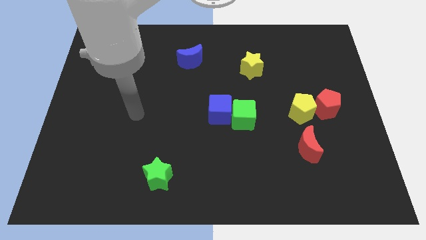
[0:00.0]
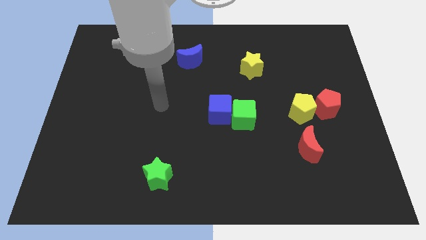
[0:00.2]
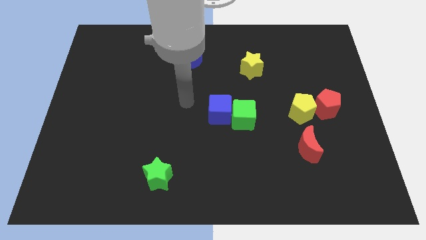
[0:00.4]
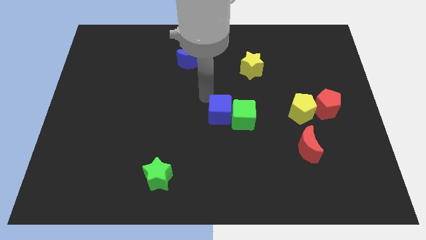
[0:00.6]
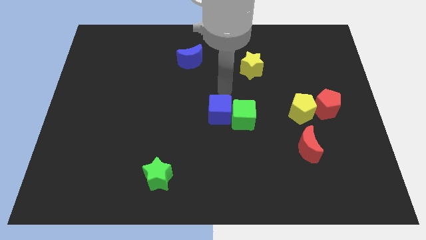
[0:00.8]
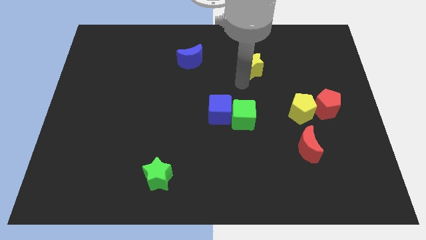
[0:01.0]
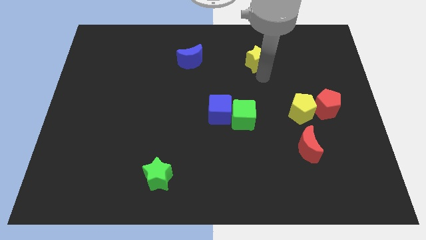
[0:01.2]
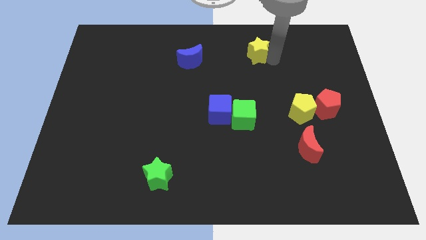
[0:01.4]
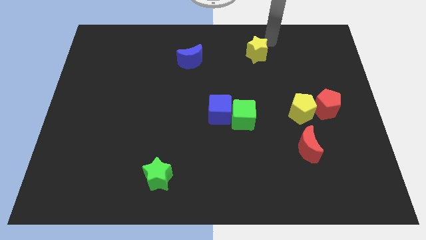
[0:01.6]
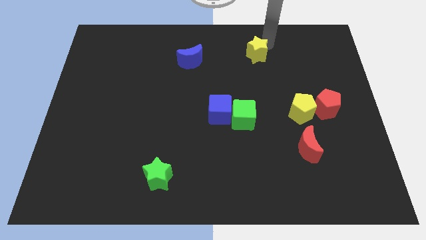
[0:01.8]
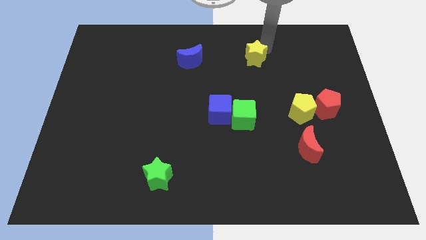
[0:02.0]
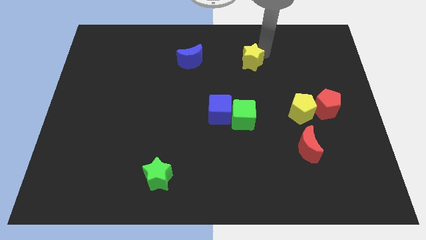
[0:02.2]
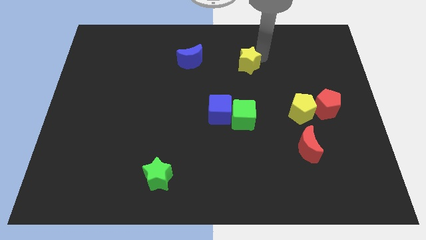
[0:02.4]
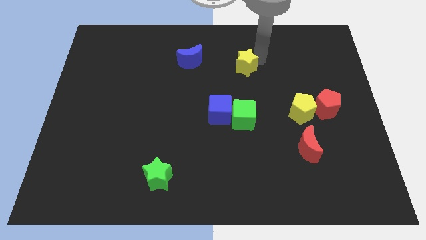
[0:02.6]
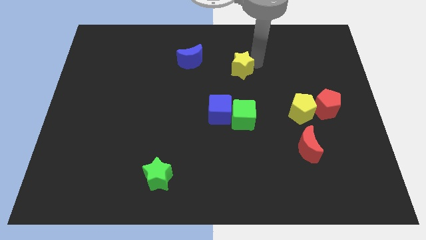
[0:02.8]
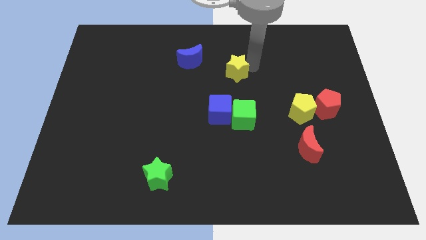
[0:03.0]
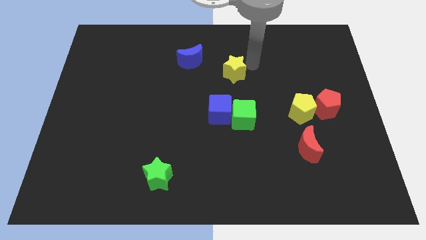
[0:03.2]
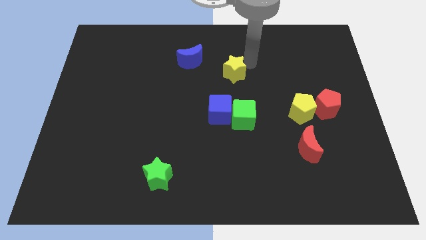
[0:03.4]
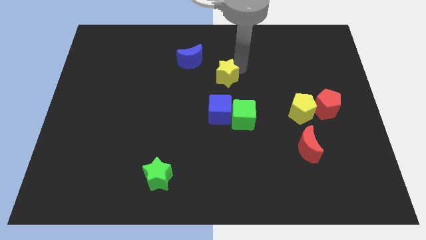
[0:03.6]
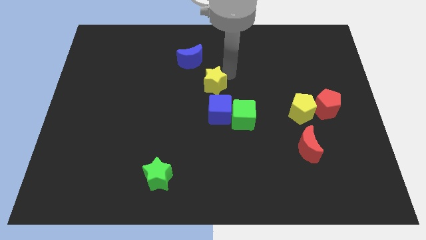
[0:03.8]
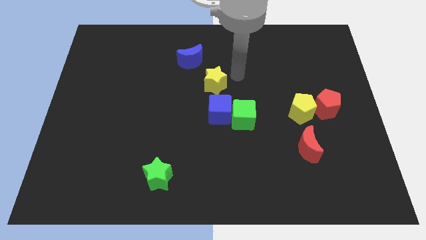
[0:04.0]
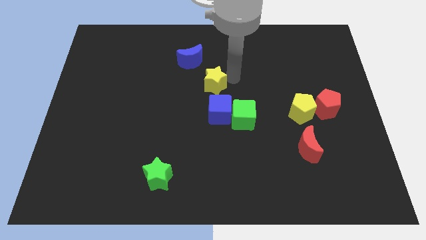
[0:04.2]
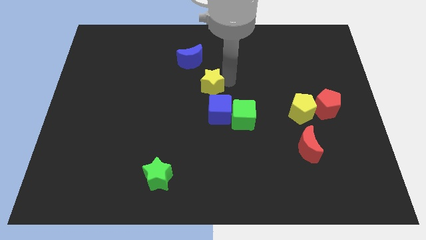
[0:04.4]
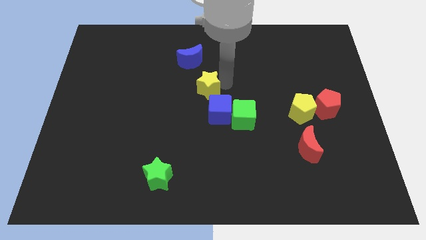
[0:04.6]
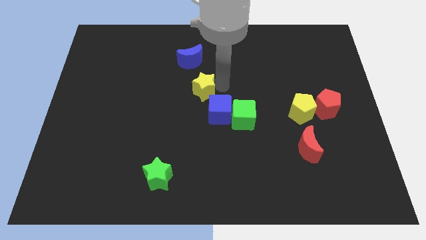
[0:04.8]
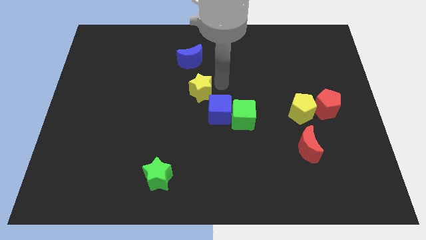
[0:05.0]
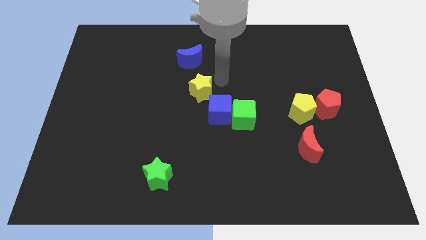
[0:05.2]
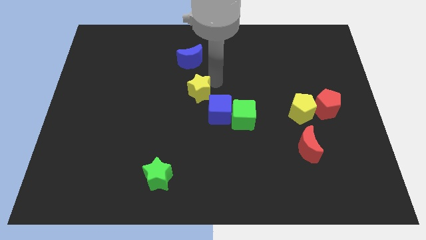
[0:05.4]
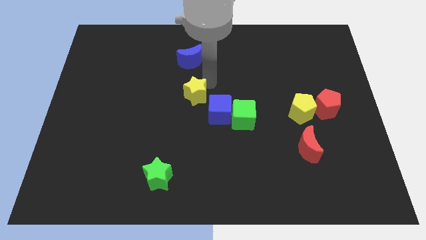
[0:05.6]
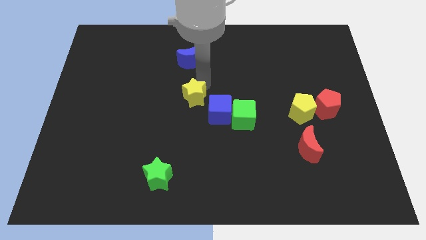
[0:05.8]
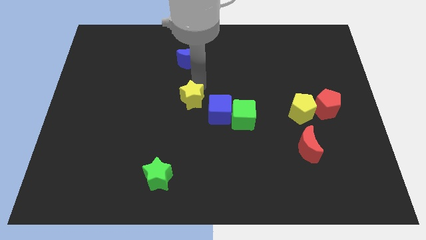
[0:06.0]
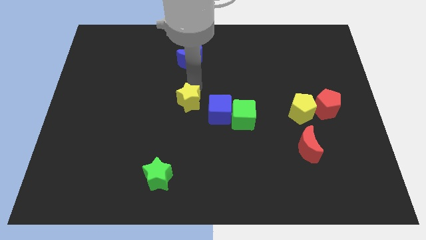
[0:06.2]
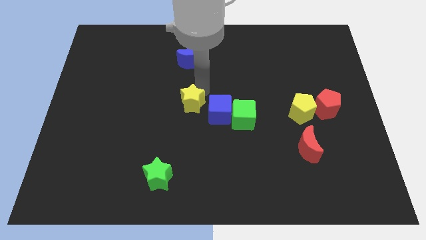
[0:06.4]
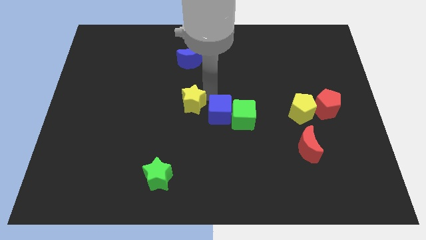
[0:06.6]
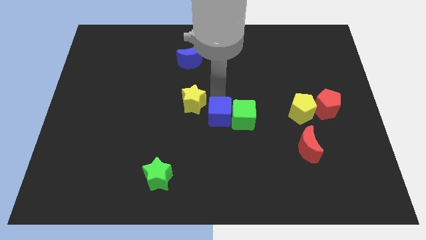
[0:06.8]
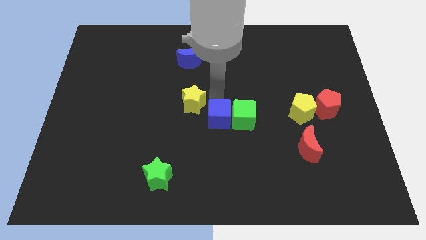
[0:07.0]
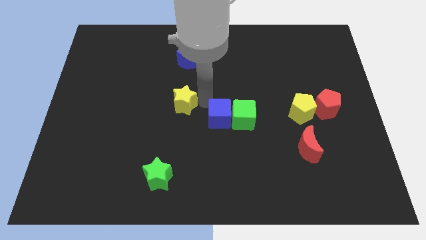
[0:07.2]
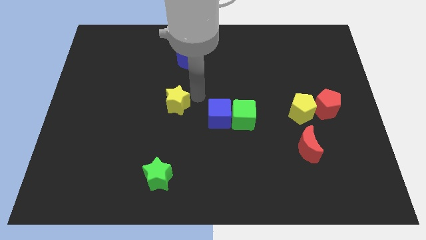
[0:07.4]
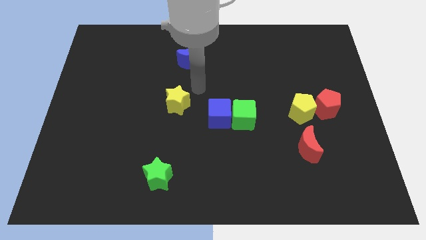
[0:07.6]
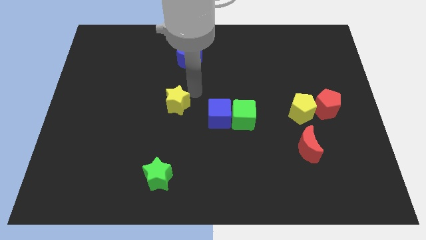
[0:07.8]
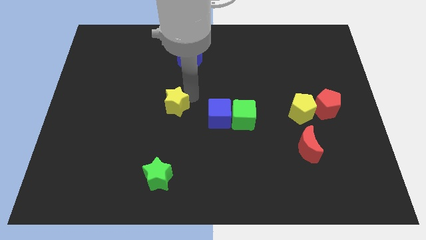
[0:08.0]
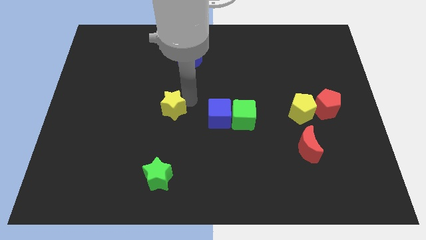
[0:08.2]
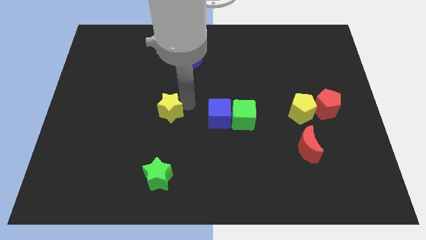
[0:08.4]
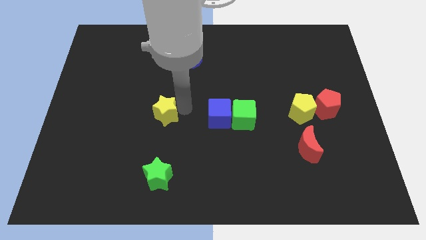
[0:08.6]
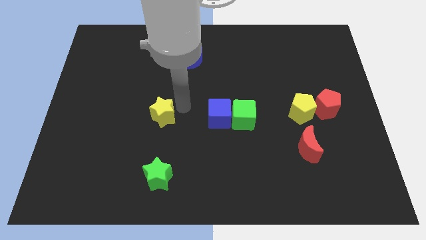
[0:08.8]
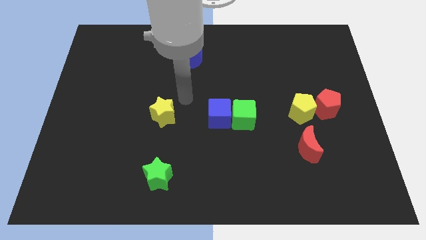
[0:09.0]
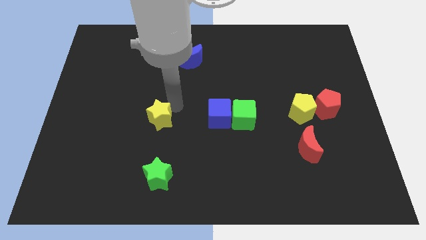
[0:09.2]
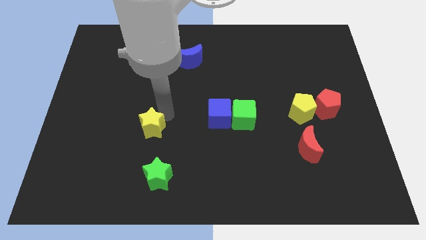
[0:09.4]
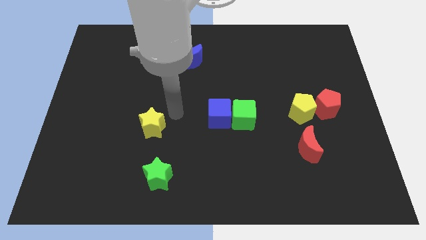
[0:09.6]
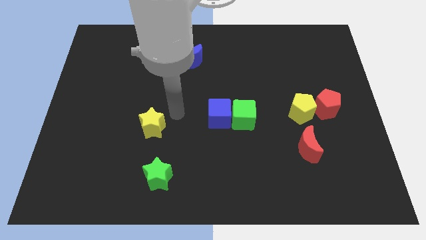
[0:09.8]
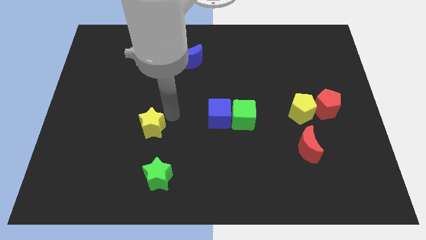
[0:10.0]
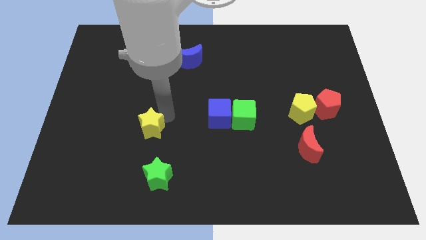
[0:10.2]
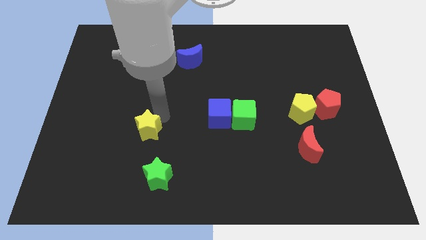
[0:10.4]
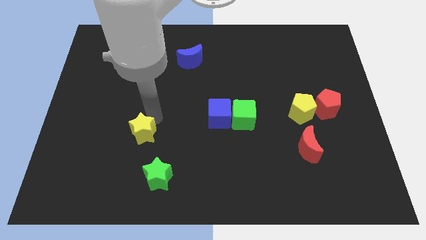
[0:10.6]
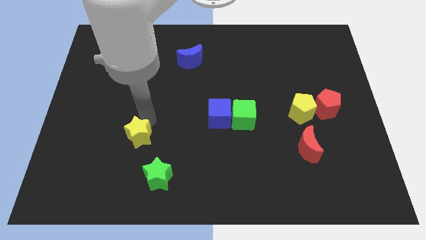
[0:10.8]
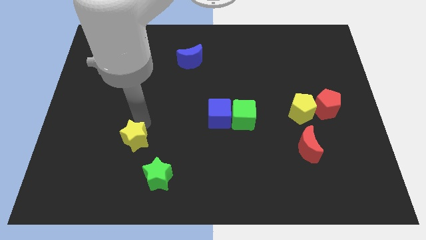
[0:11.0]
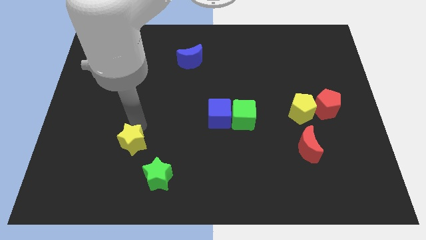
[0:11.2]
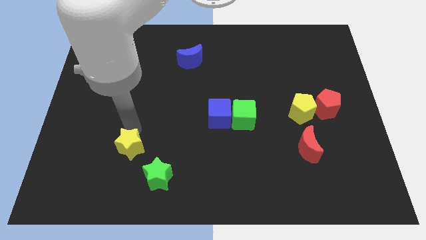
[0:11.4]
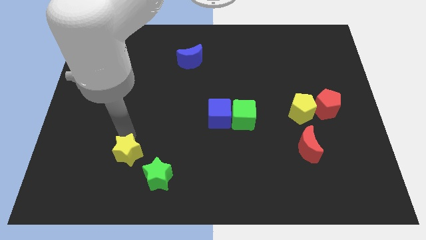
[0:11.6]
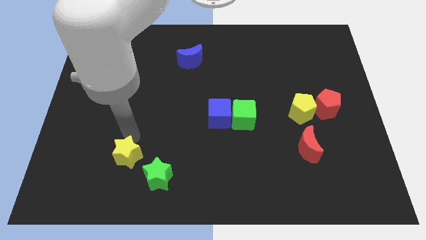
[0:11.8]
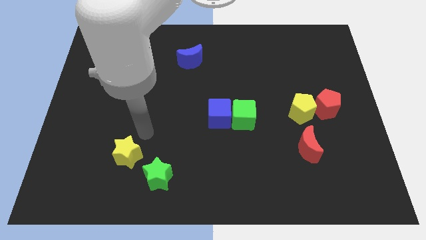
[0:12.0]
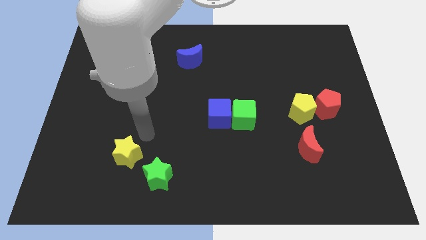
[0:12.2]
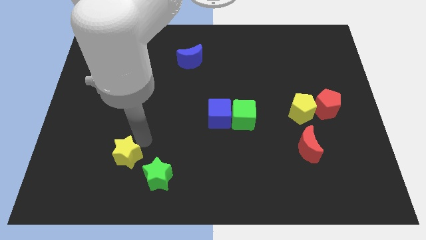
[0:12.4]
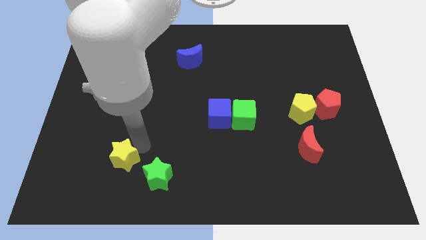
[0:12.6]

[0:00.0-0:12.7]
slide the yellow star to the left side of the green star

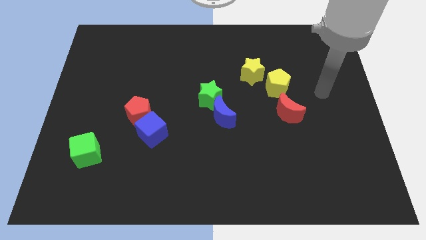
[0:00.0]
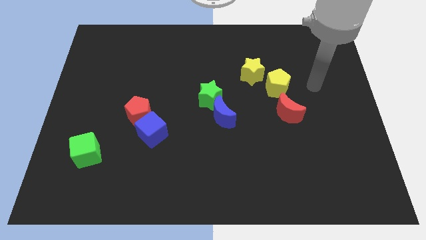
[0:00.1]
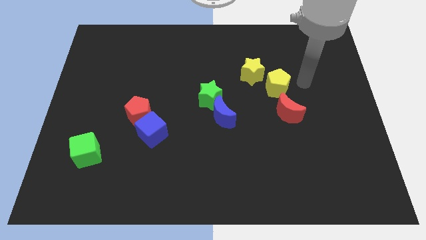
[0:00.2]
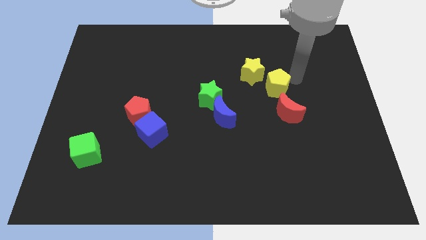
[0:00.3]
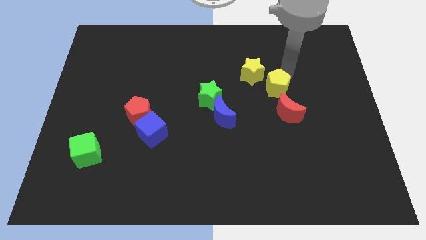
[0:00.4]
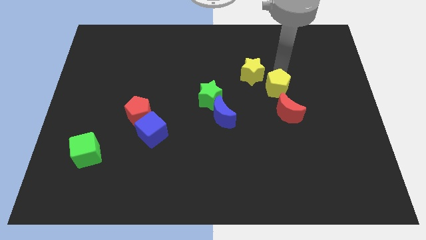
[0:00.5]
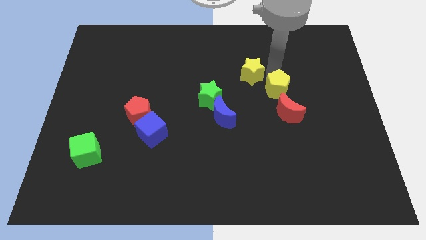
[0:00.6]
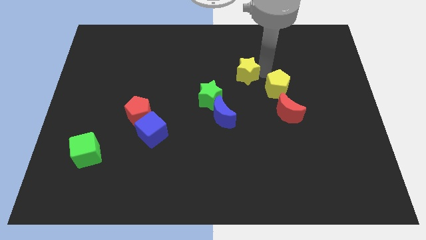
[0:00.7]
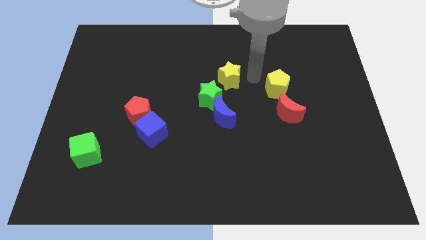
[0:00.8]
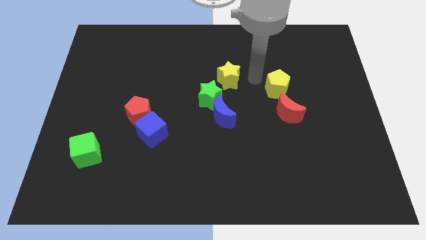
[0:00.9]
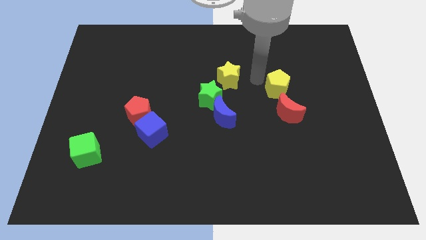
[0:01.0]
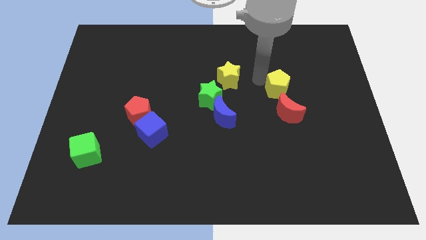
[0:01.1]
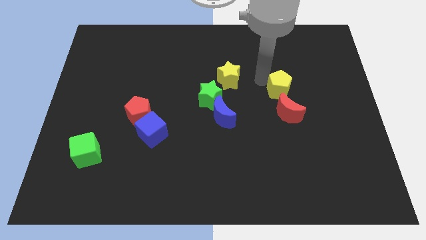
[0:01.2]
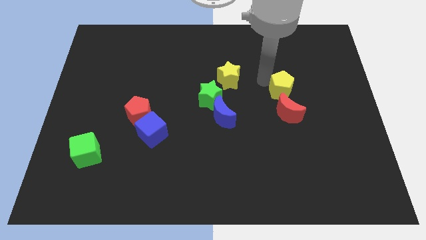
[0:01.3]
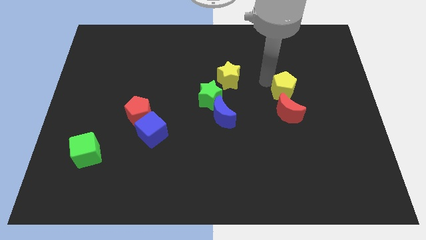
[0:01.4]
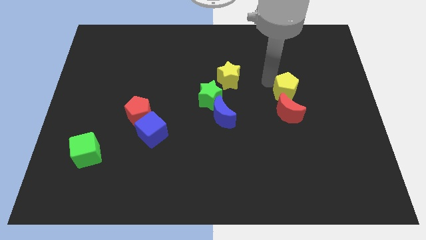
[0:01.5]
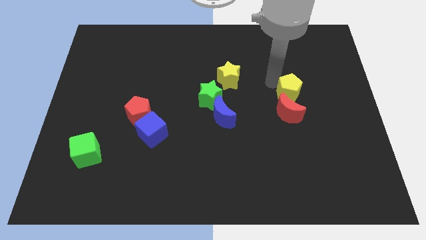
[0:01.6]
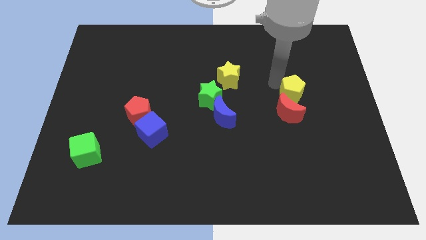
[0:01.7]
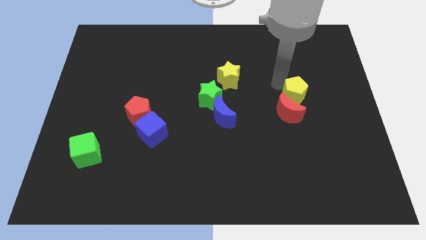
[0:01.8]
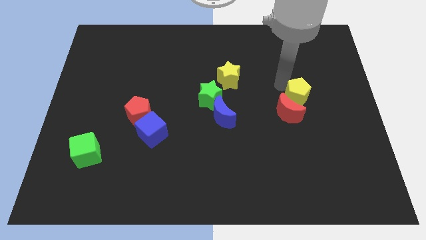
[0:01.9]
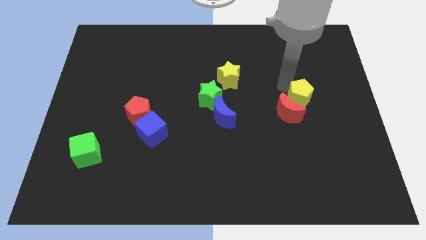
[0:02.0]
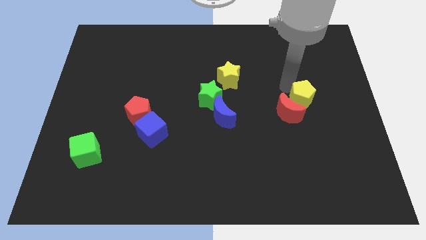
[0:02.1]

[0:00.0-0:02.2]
move the yellow pentagon to the right of the red moon
